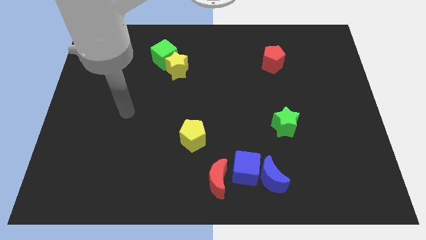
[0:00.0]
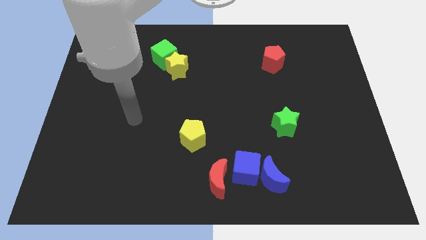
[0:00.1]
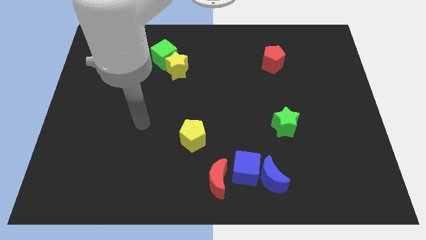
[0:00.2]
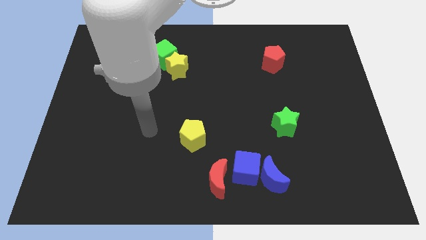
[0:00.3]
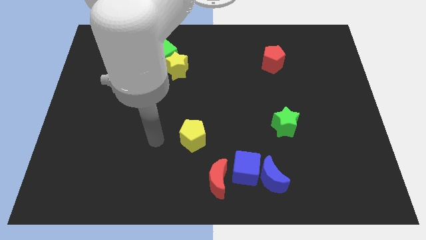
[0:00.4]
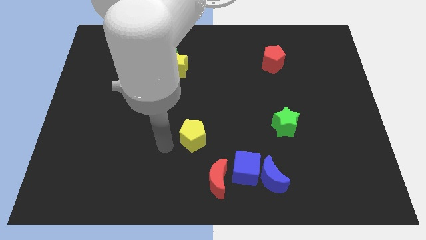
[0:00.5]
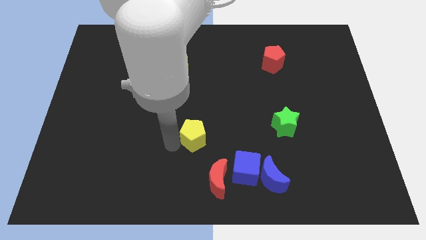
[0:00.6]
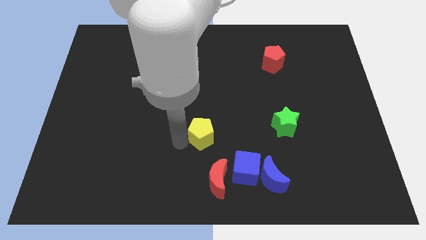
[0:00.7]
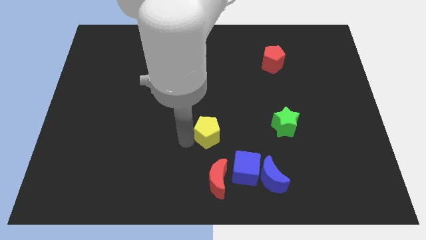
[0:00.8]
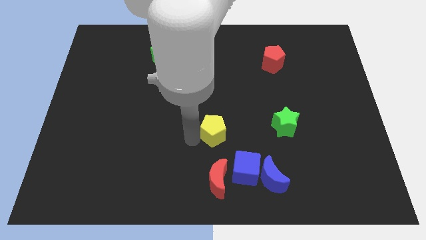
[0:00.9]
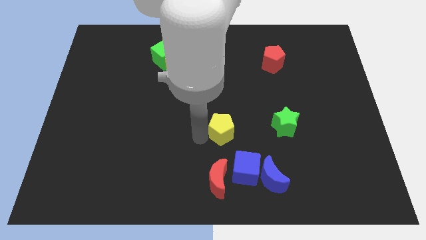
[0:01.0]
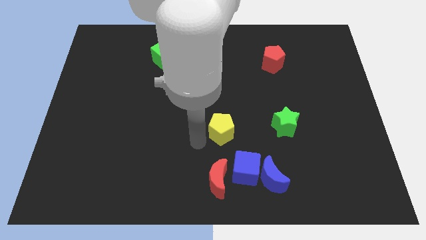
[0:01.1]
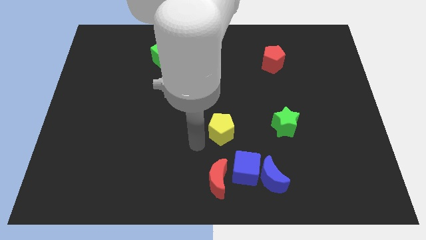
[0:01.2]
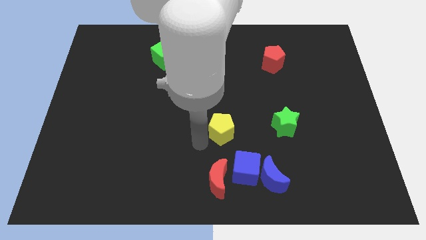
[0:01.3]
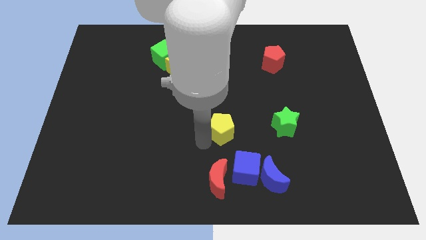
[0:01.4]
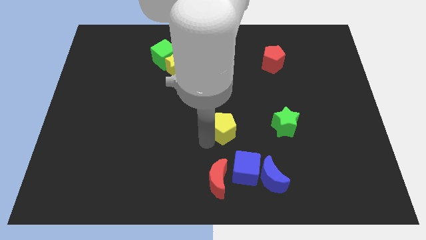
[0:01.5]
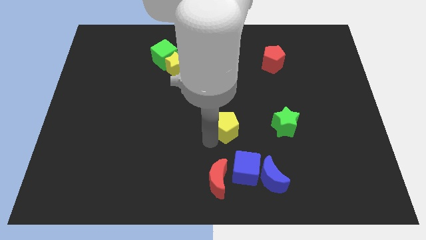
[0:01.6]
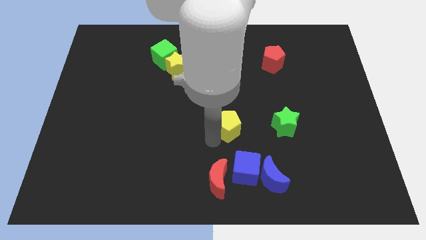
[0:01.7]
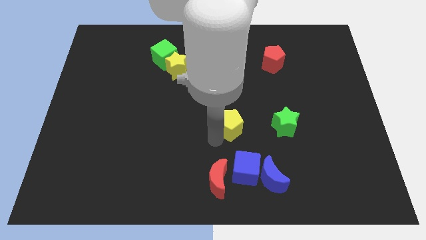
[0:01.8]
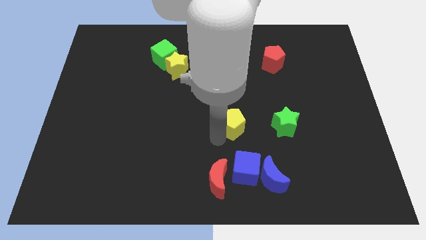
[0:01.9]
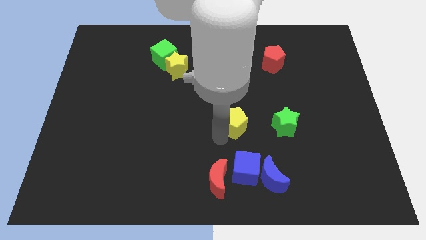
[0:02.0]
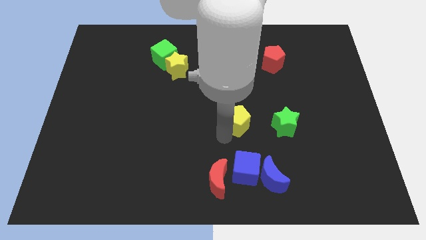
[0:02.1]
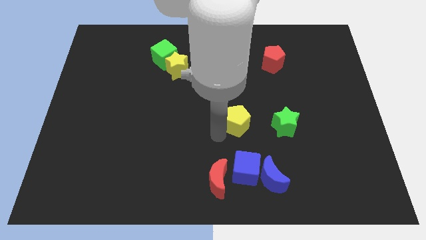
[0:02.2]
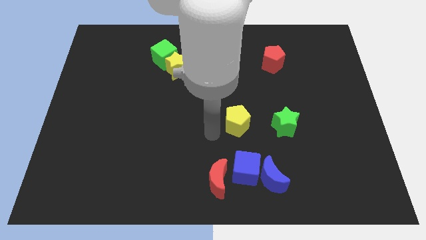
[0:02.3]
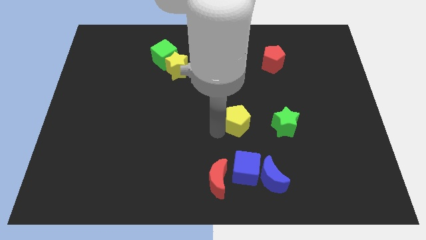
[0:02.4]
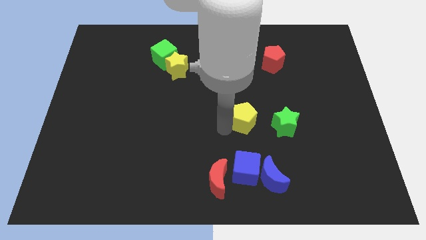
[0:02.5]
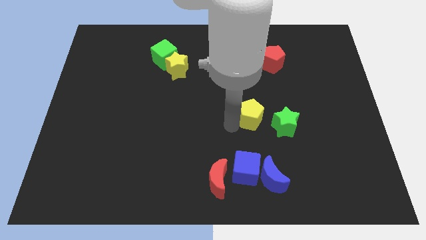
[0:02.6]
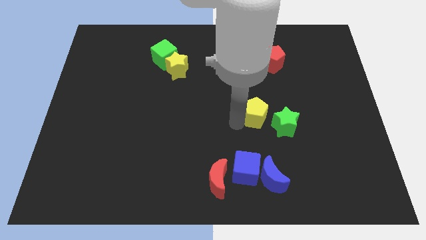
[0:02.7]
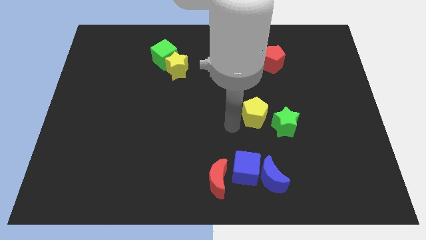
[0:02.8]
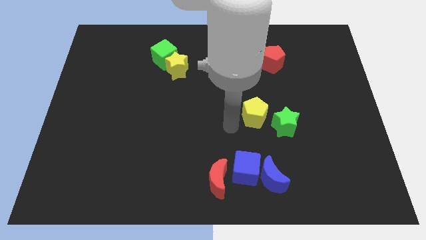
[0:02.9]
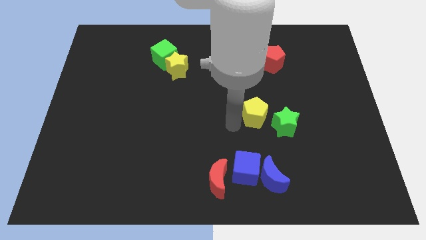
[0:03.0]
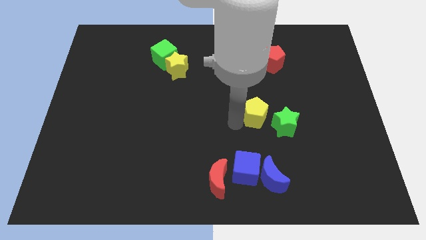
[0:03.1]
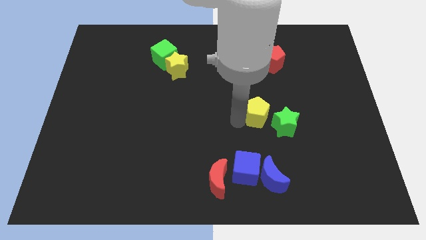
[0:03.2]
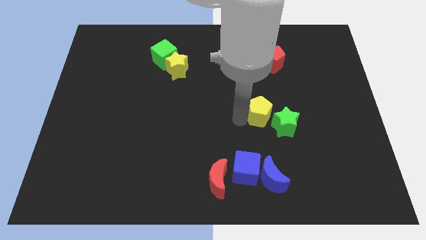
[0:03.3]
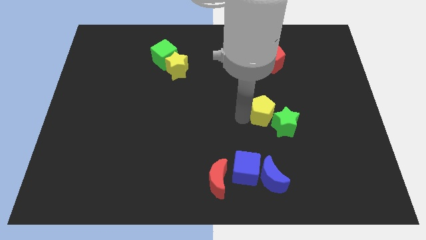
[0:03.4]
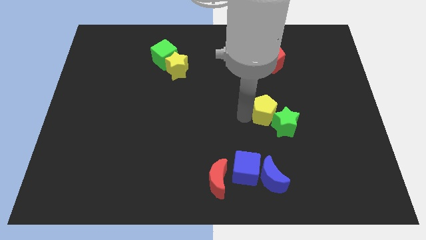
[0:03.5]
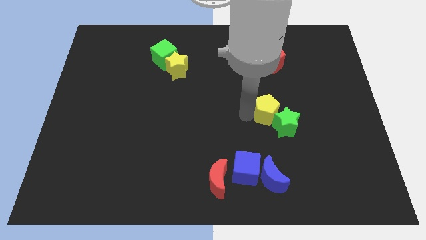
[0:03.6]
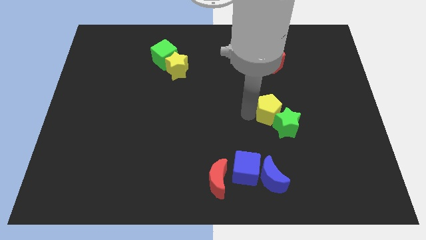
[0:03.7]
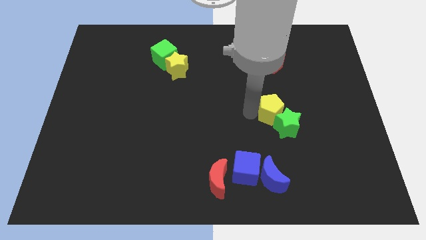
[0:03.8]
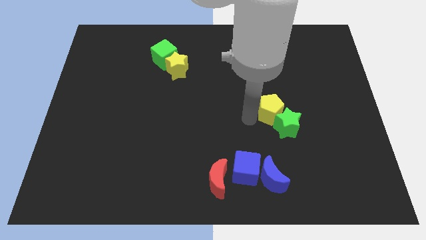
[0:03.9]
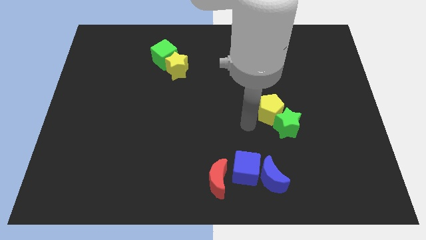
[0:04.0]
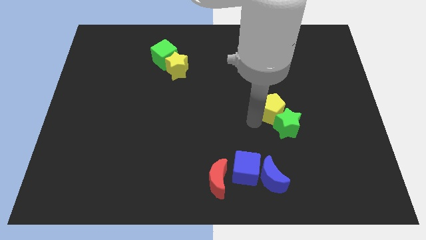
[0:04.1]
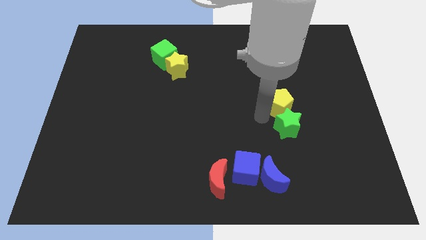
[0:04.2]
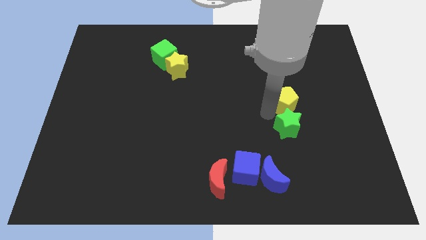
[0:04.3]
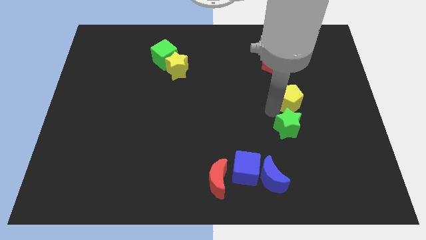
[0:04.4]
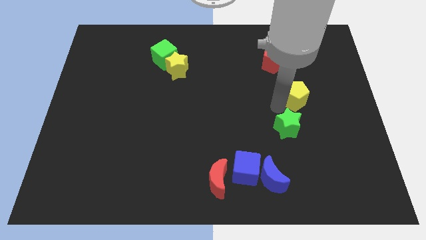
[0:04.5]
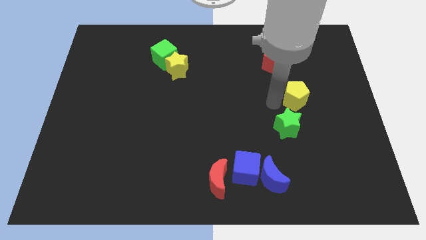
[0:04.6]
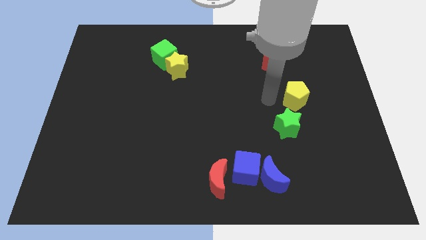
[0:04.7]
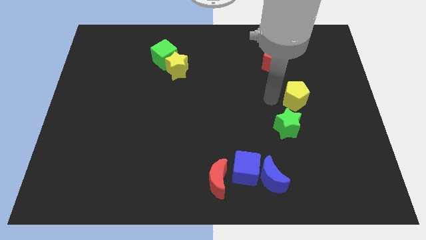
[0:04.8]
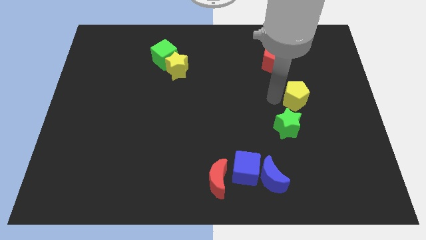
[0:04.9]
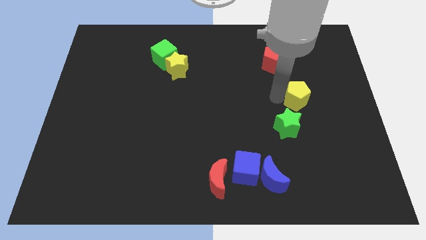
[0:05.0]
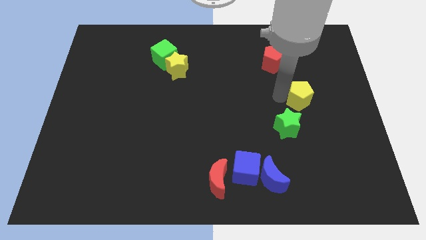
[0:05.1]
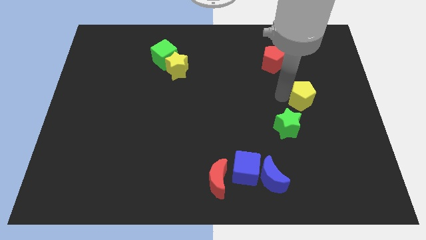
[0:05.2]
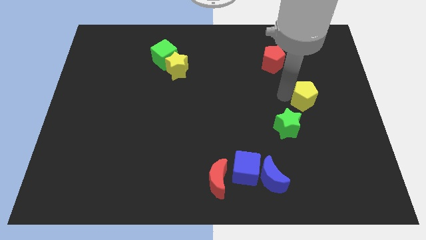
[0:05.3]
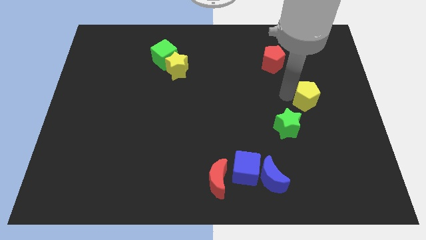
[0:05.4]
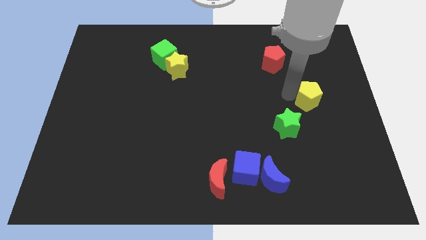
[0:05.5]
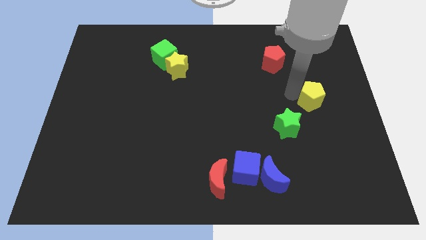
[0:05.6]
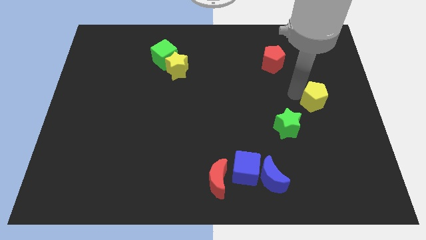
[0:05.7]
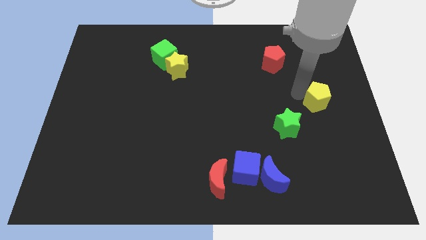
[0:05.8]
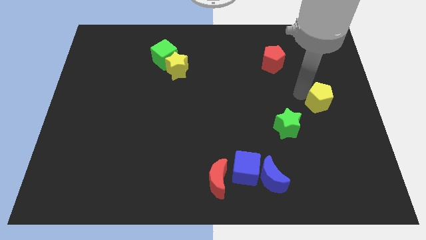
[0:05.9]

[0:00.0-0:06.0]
move the yellow pentagon to the right side

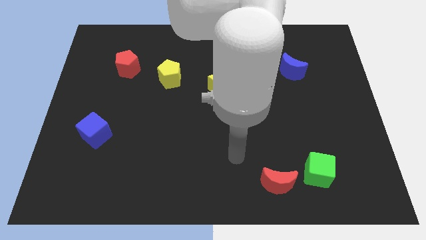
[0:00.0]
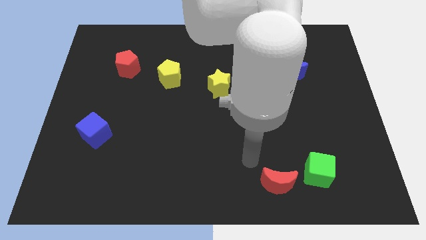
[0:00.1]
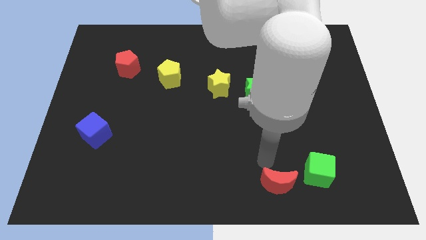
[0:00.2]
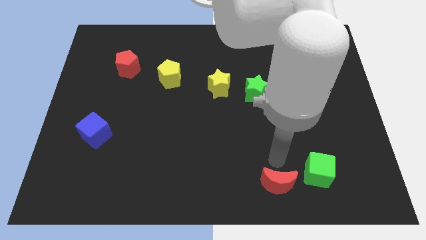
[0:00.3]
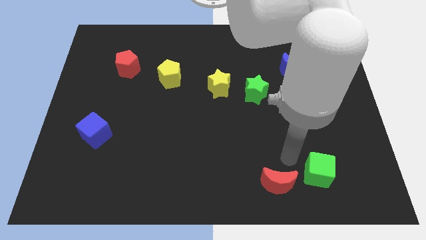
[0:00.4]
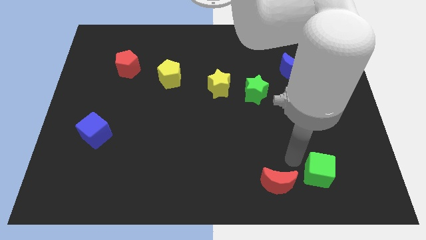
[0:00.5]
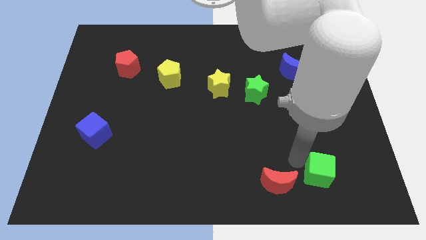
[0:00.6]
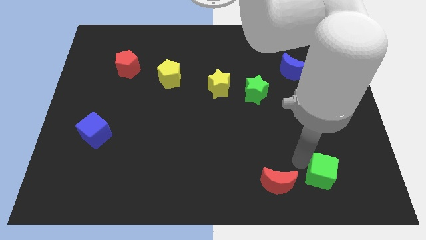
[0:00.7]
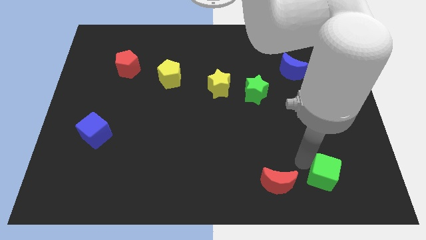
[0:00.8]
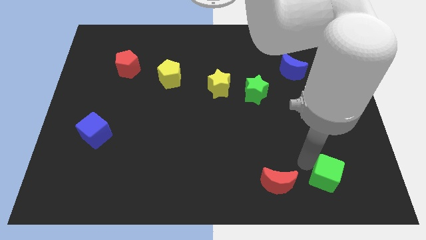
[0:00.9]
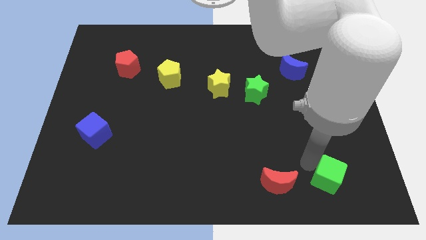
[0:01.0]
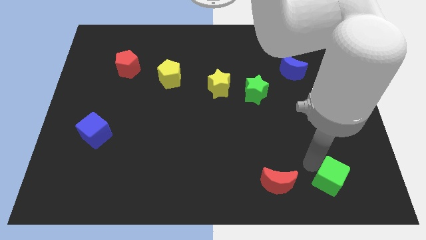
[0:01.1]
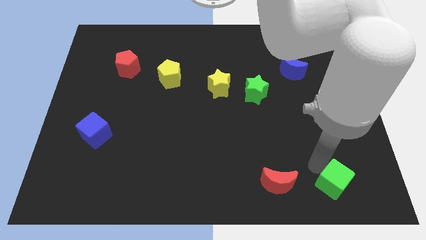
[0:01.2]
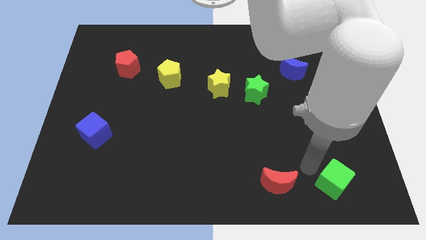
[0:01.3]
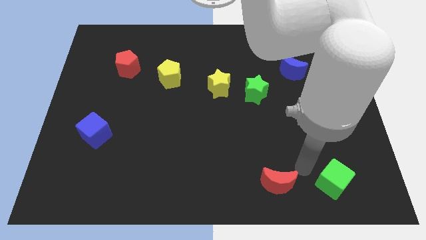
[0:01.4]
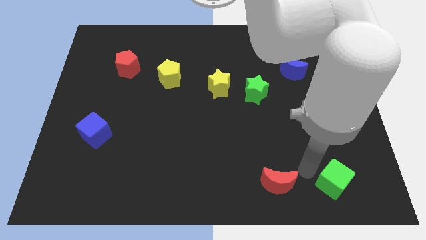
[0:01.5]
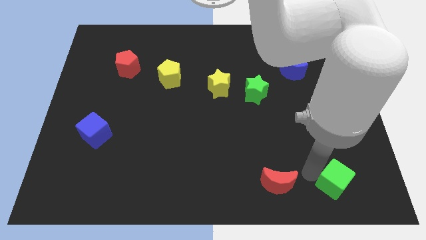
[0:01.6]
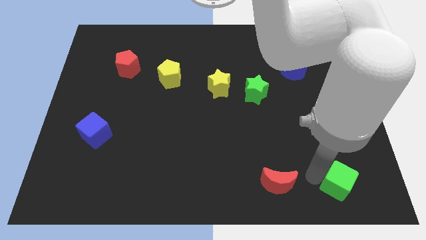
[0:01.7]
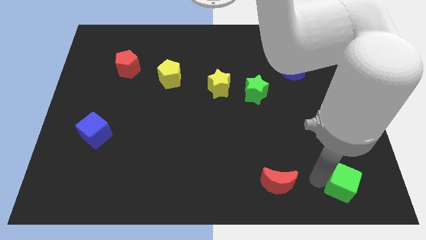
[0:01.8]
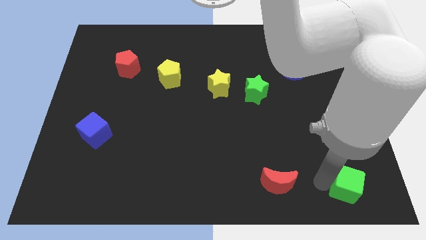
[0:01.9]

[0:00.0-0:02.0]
push the green cube to the bottom right
